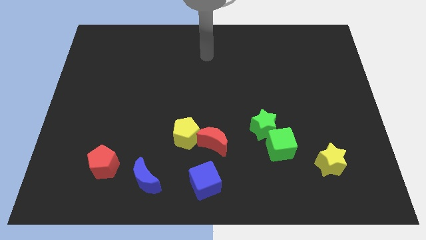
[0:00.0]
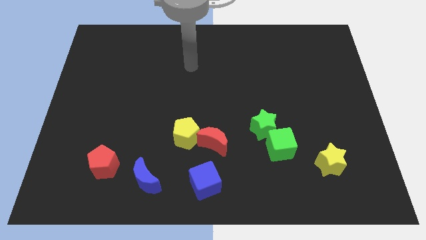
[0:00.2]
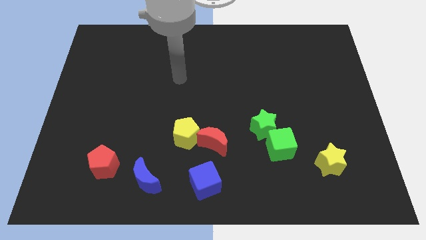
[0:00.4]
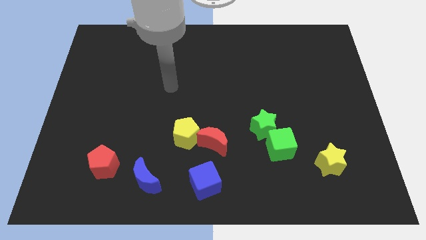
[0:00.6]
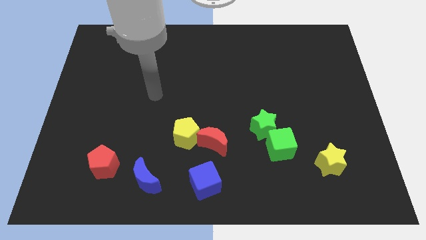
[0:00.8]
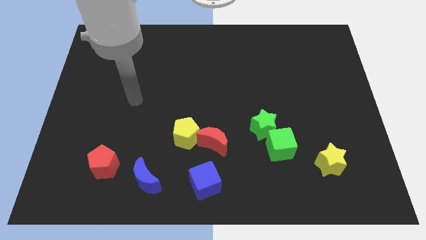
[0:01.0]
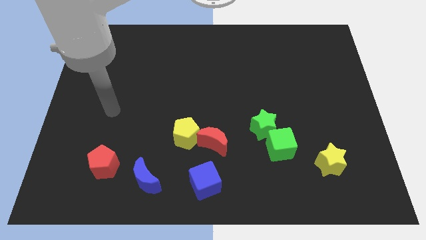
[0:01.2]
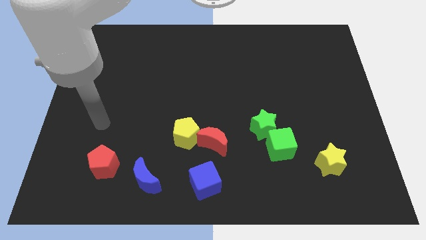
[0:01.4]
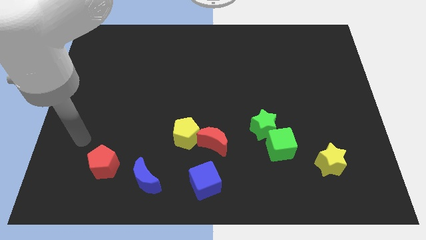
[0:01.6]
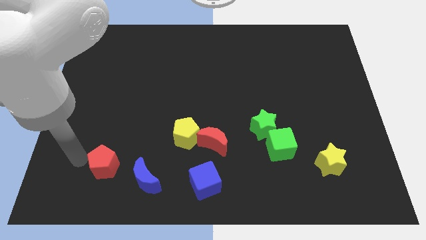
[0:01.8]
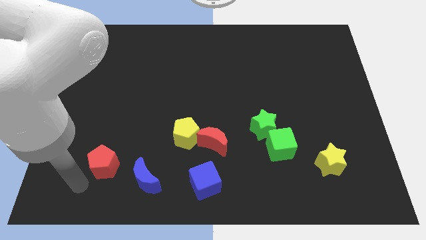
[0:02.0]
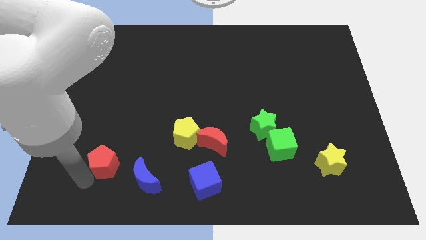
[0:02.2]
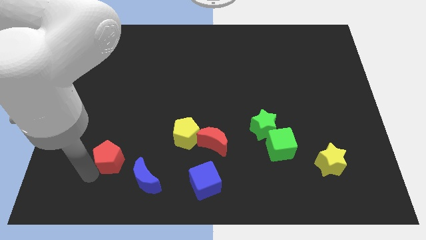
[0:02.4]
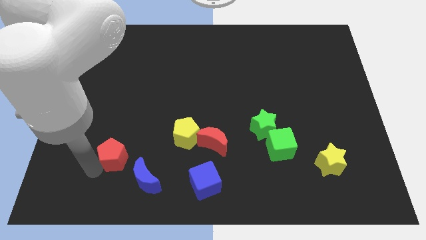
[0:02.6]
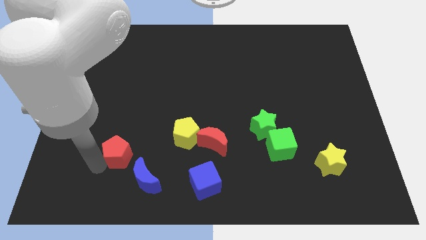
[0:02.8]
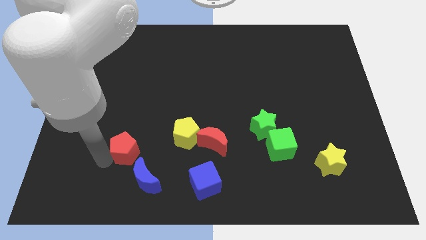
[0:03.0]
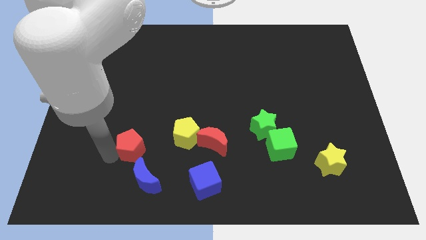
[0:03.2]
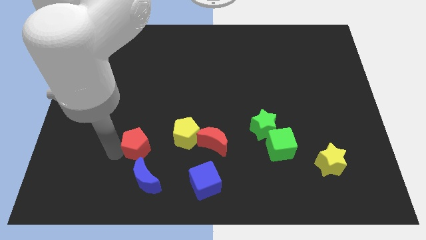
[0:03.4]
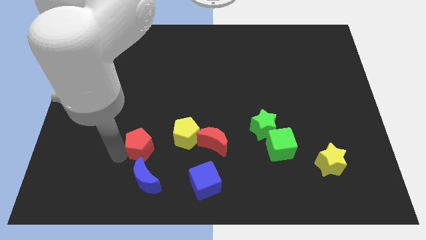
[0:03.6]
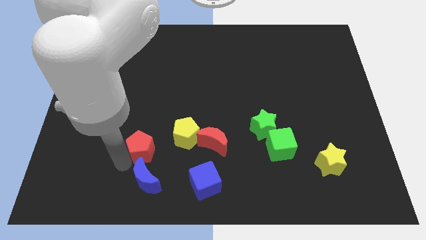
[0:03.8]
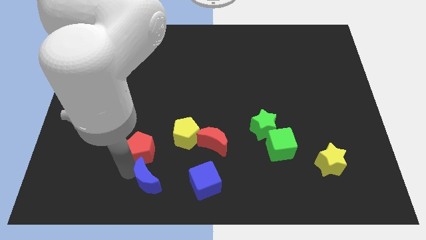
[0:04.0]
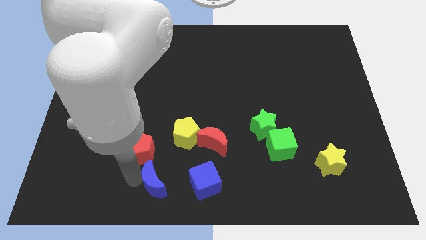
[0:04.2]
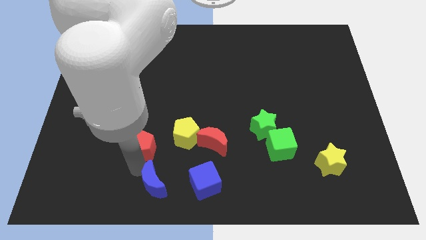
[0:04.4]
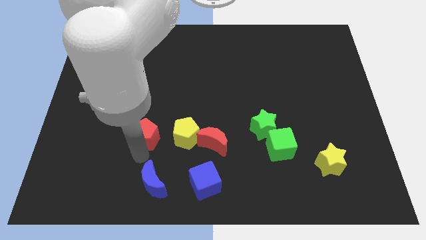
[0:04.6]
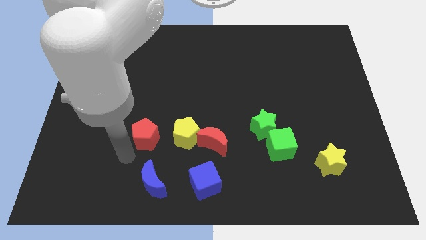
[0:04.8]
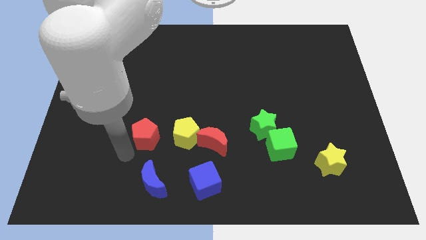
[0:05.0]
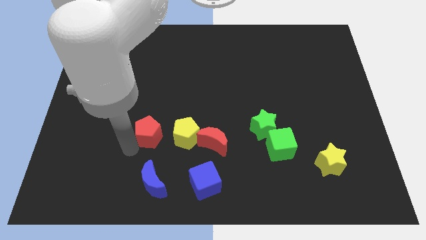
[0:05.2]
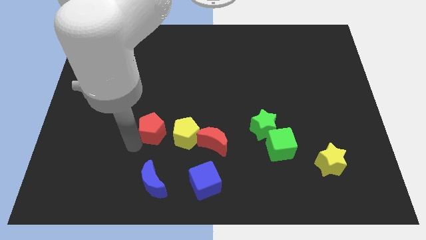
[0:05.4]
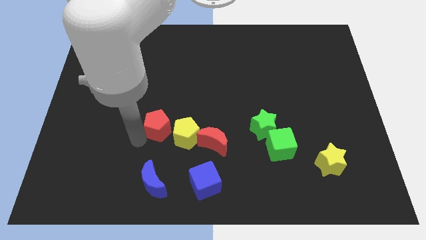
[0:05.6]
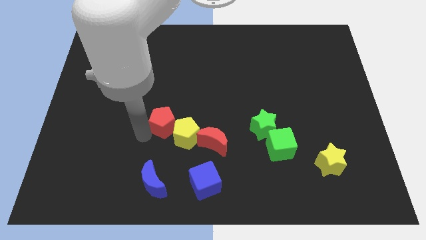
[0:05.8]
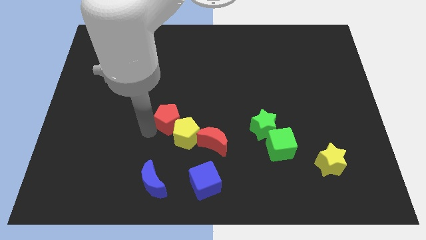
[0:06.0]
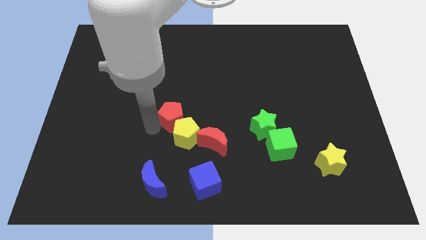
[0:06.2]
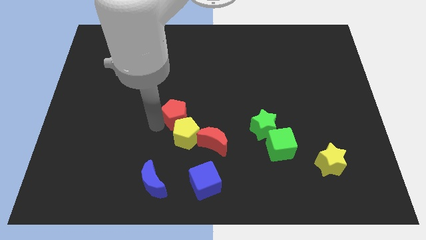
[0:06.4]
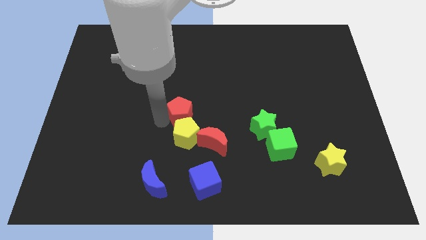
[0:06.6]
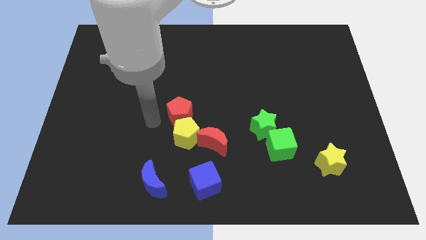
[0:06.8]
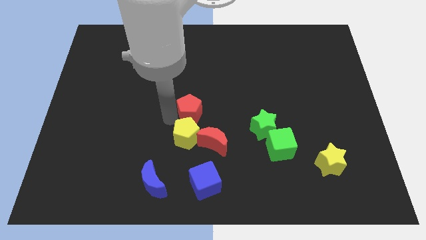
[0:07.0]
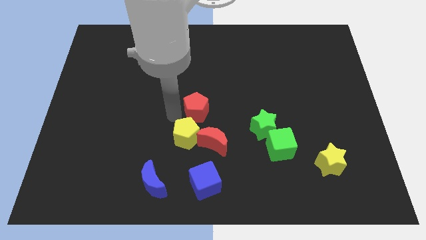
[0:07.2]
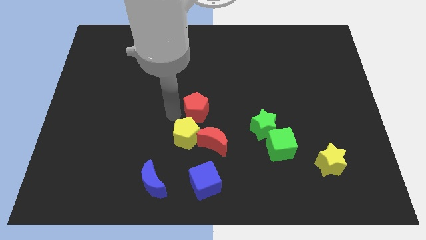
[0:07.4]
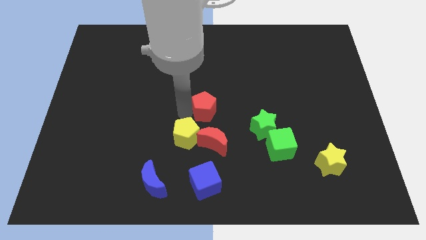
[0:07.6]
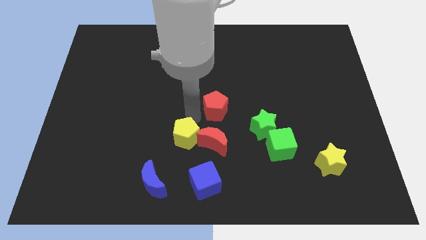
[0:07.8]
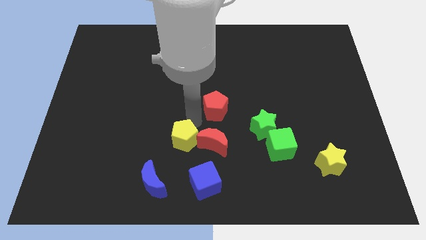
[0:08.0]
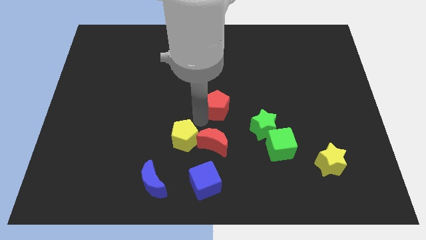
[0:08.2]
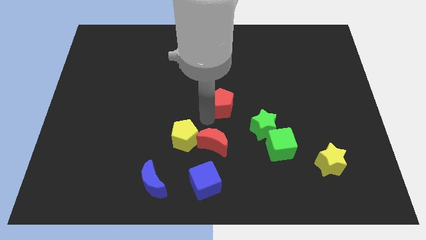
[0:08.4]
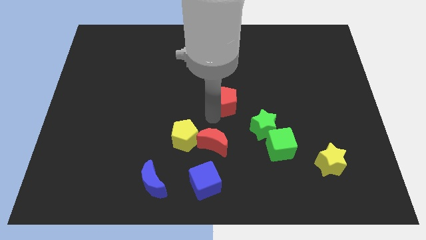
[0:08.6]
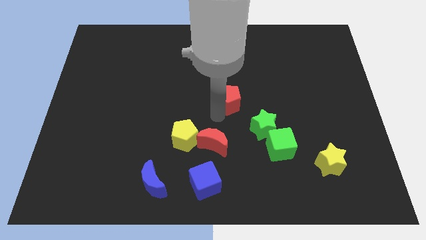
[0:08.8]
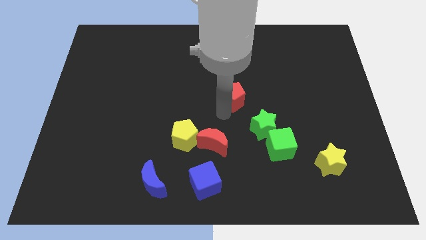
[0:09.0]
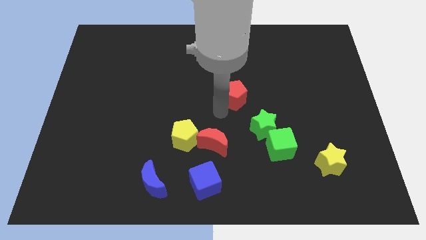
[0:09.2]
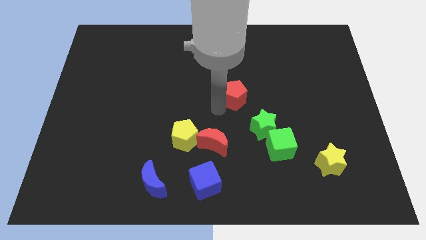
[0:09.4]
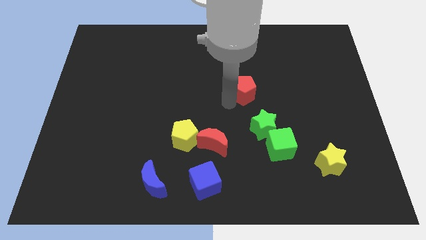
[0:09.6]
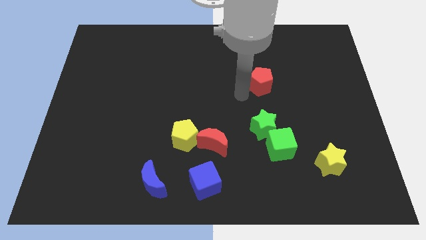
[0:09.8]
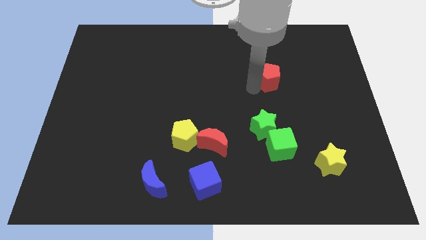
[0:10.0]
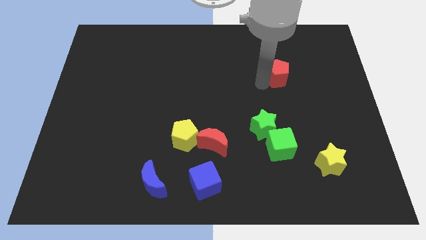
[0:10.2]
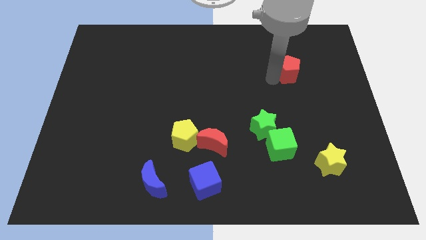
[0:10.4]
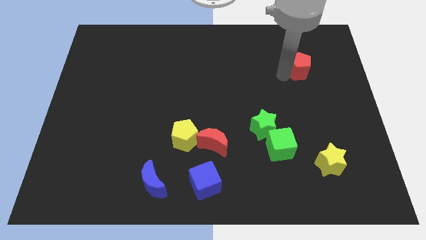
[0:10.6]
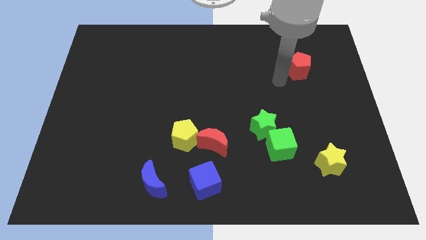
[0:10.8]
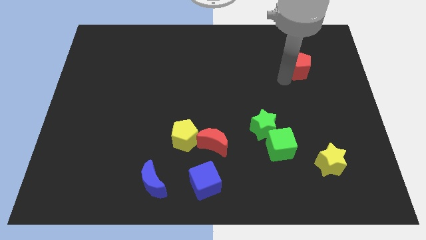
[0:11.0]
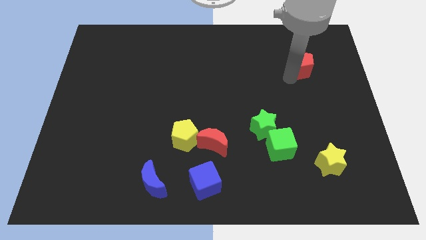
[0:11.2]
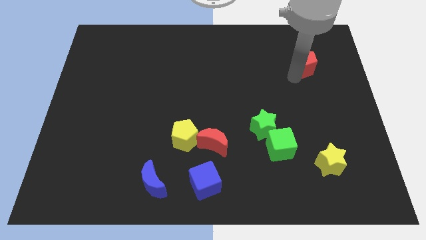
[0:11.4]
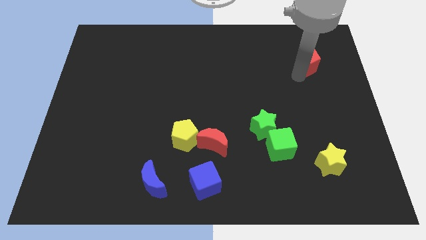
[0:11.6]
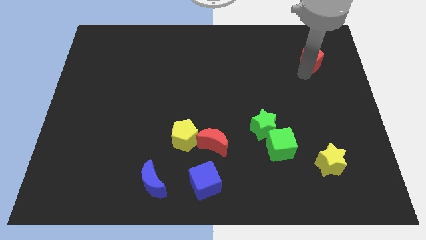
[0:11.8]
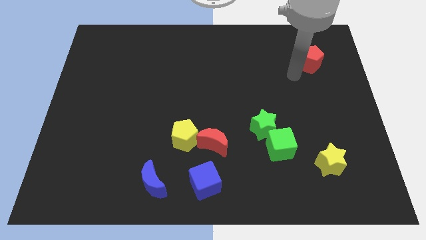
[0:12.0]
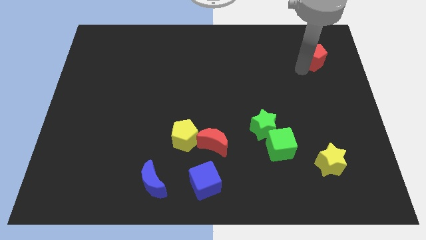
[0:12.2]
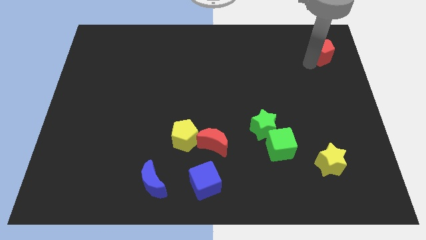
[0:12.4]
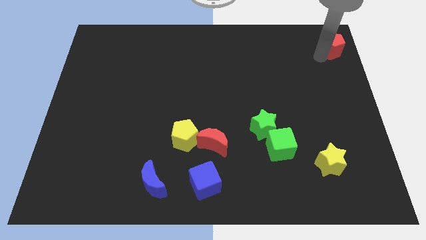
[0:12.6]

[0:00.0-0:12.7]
put the red pentagon to the upper right corner
